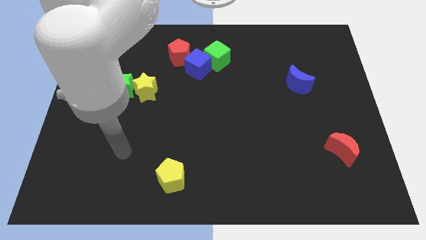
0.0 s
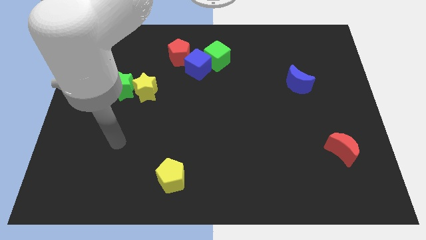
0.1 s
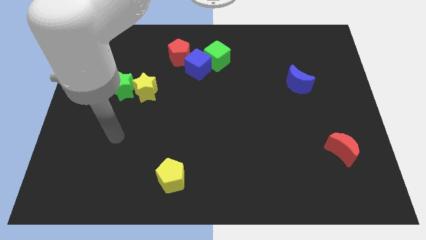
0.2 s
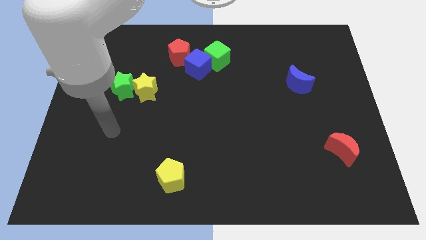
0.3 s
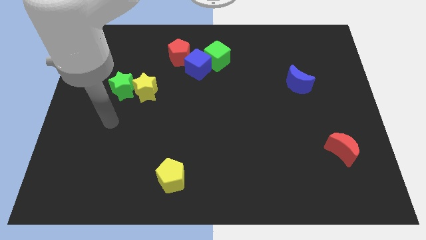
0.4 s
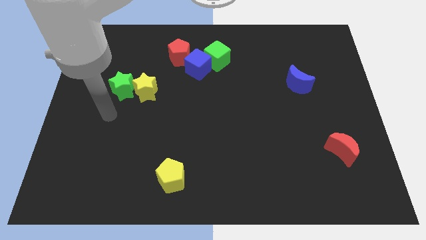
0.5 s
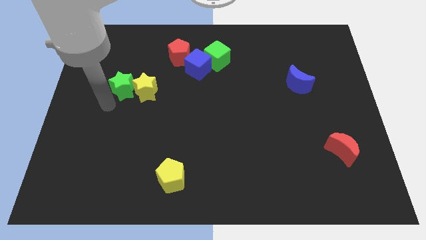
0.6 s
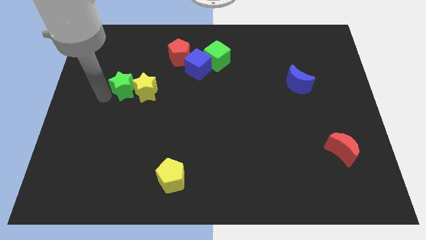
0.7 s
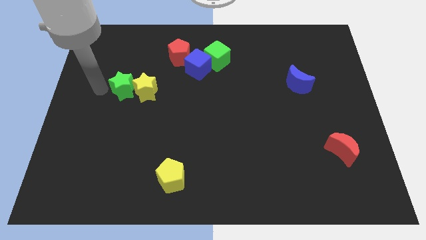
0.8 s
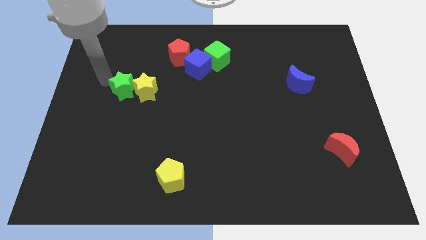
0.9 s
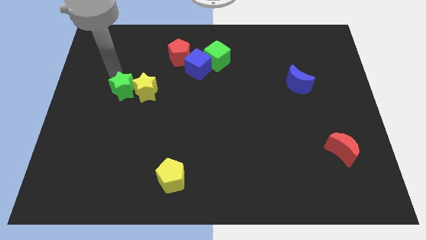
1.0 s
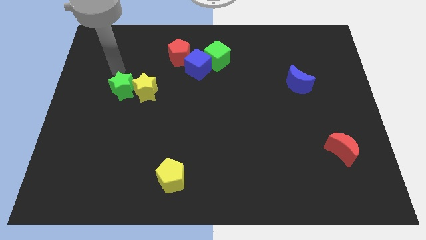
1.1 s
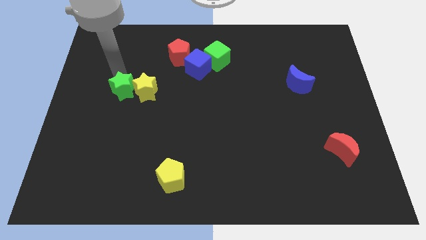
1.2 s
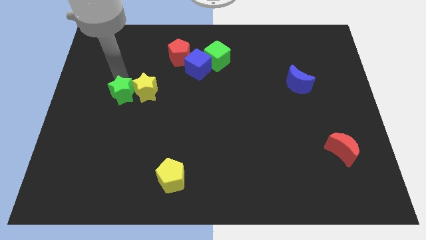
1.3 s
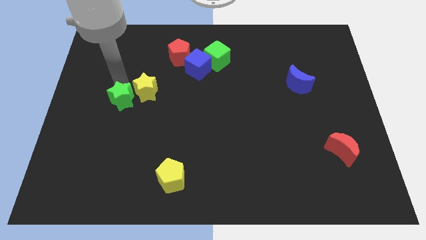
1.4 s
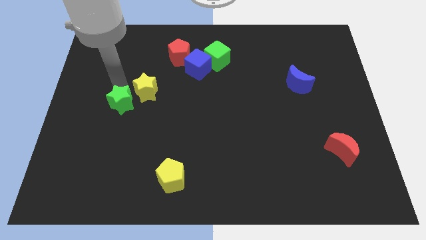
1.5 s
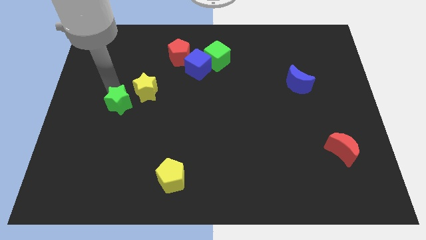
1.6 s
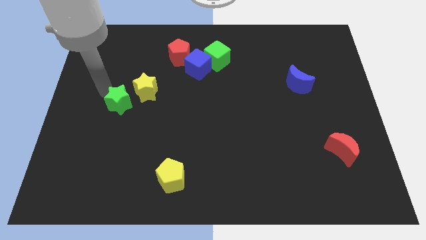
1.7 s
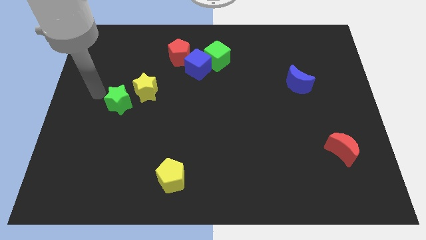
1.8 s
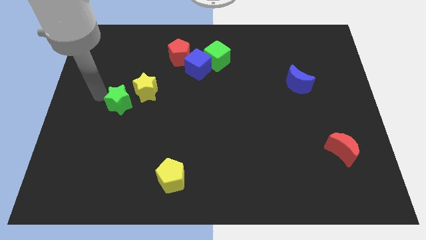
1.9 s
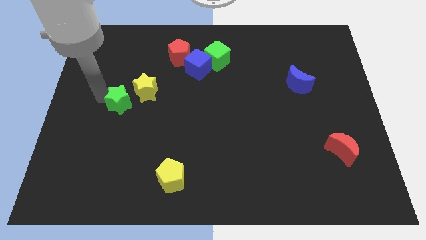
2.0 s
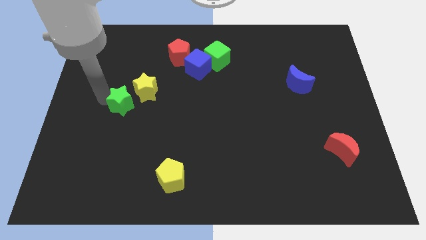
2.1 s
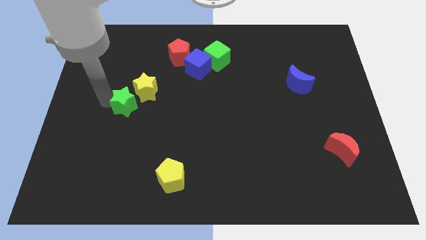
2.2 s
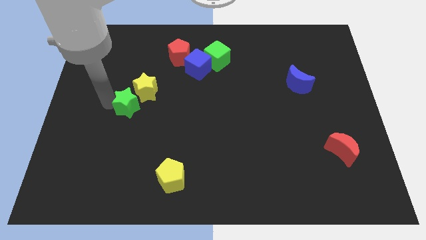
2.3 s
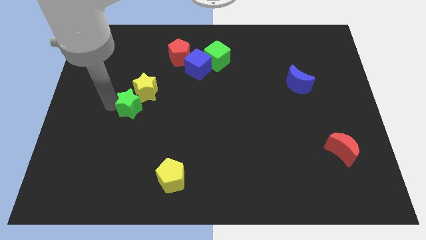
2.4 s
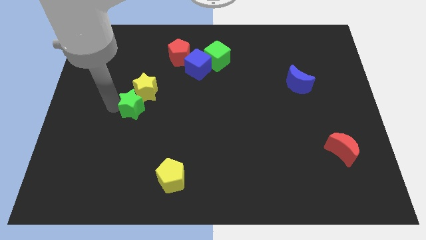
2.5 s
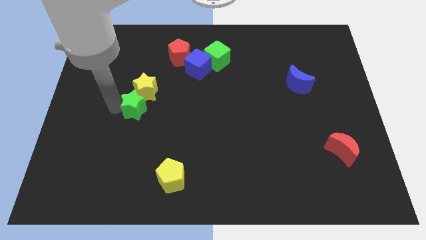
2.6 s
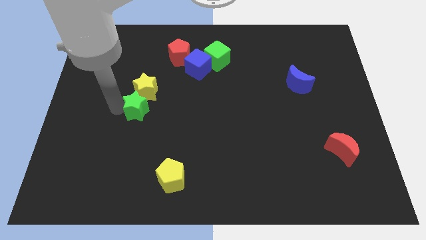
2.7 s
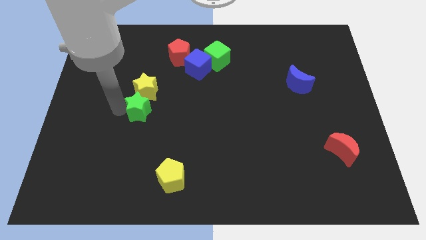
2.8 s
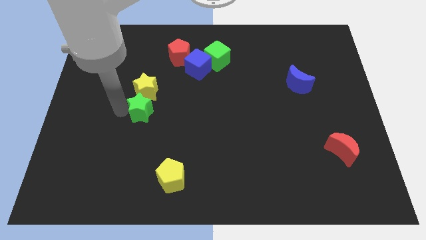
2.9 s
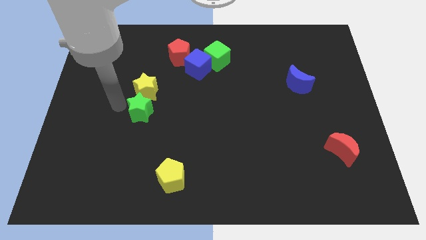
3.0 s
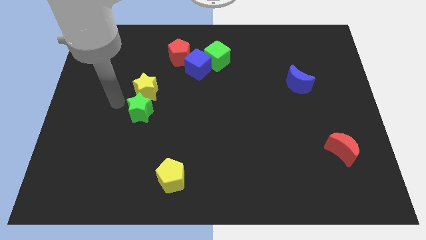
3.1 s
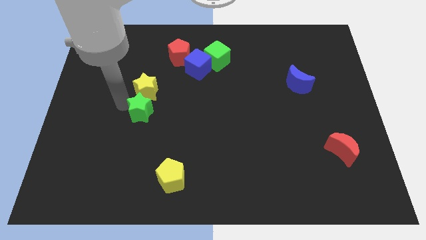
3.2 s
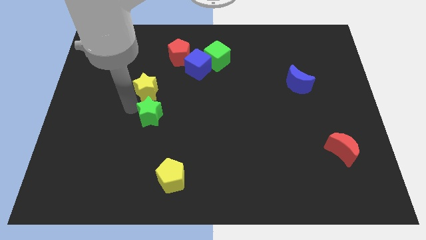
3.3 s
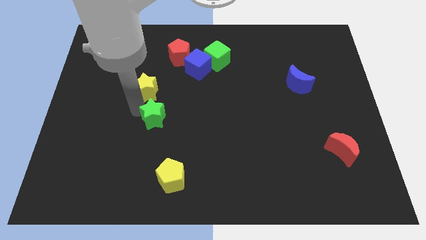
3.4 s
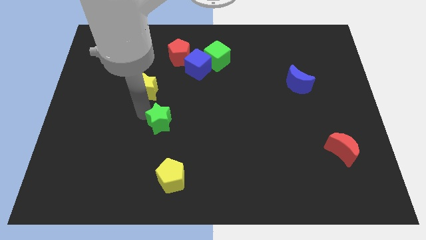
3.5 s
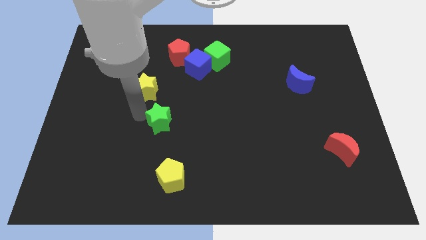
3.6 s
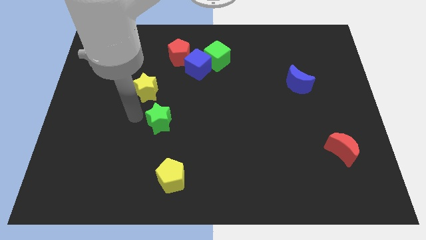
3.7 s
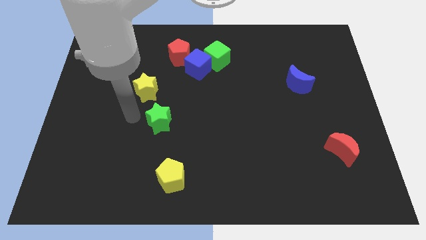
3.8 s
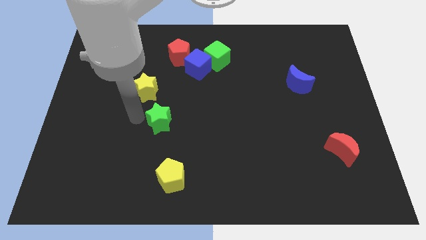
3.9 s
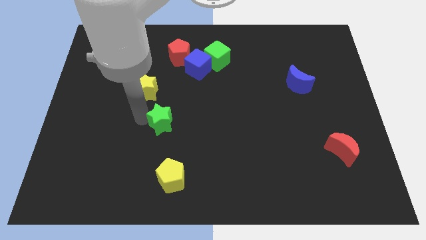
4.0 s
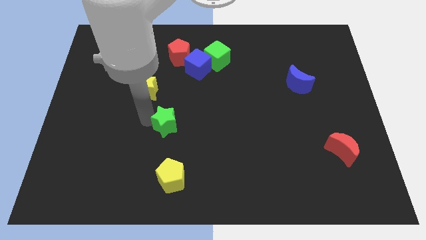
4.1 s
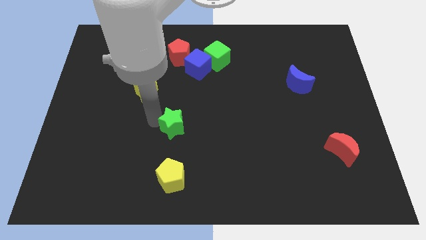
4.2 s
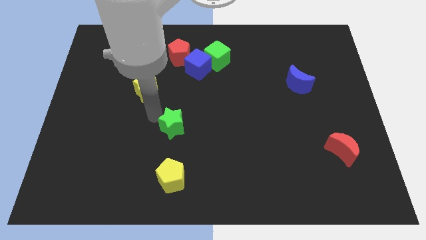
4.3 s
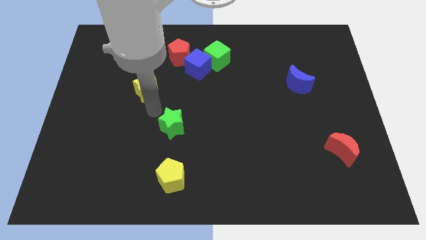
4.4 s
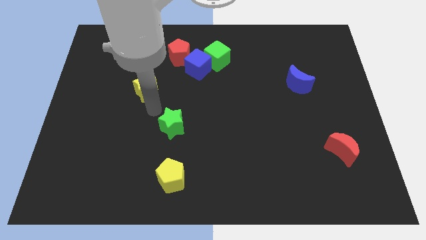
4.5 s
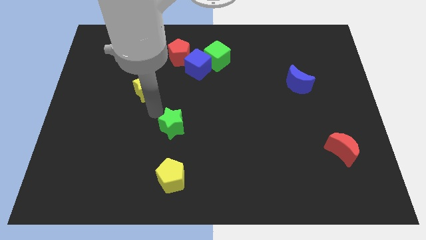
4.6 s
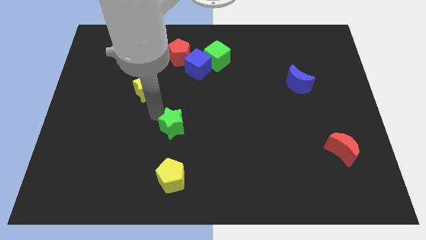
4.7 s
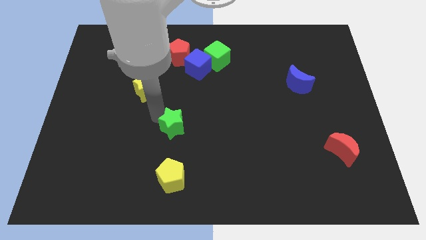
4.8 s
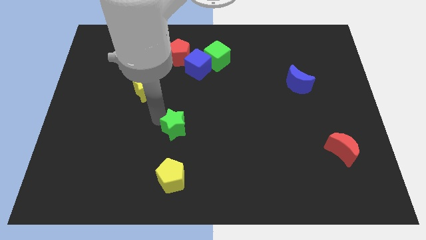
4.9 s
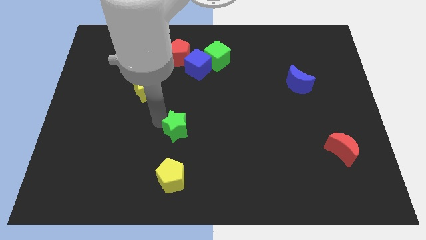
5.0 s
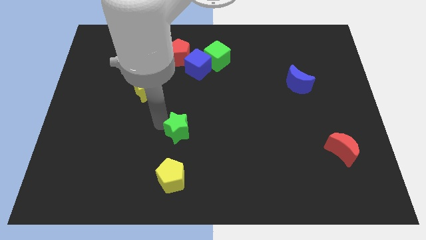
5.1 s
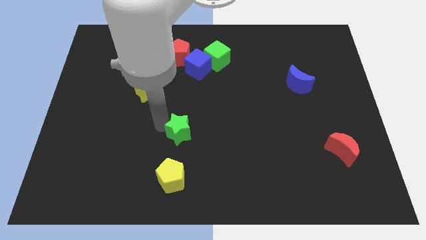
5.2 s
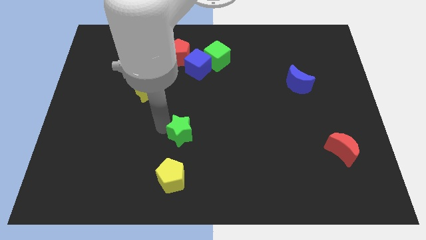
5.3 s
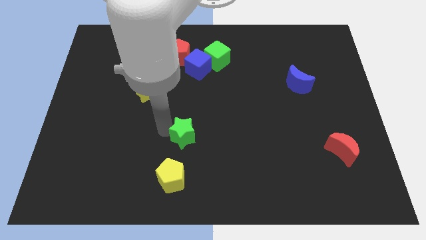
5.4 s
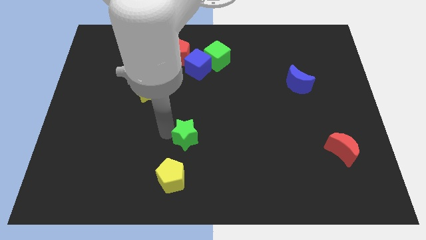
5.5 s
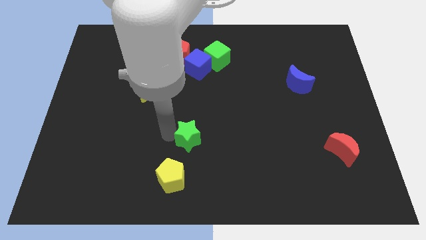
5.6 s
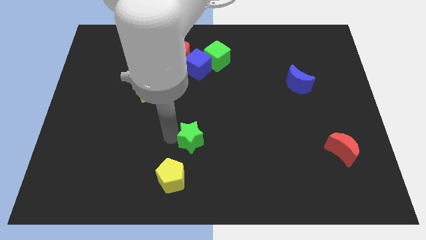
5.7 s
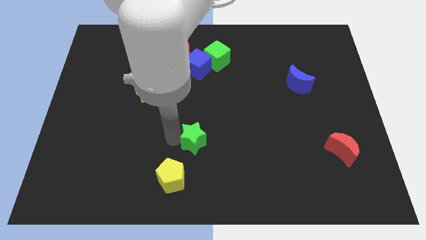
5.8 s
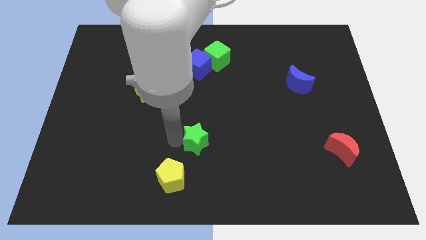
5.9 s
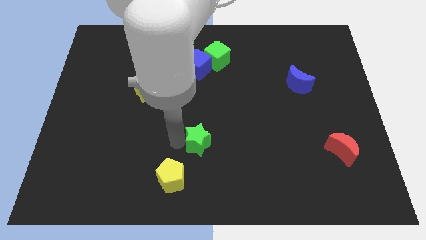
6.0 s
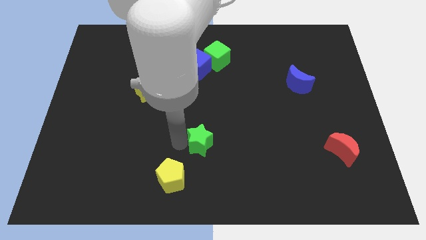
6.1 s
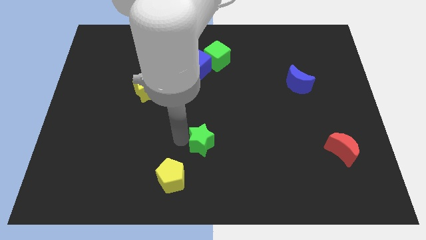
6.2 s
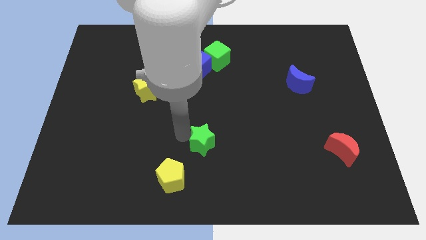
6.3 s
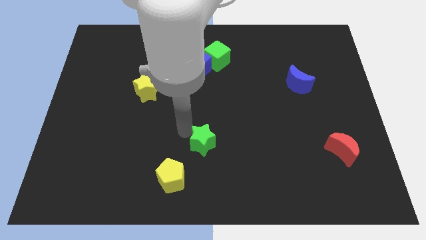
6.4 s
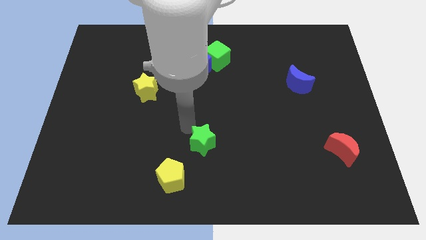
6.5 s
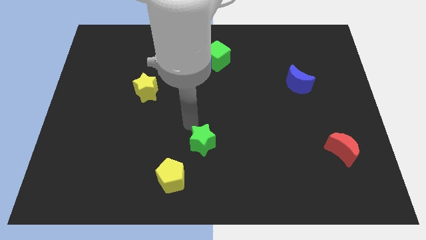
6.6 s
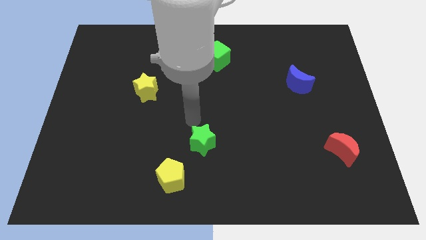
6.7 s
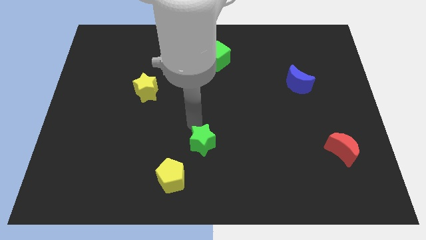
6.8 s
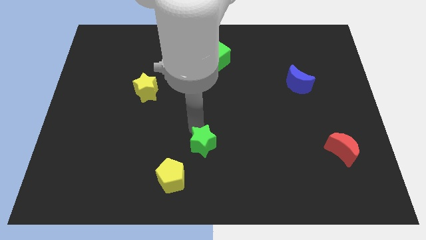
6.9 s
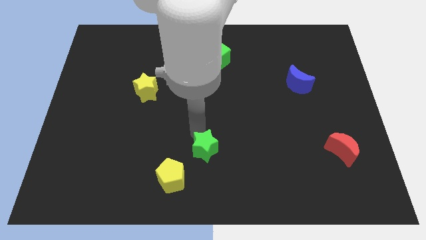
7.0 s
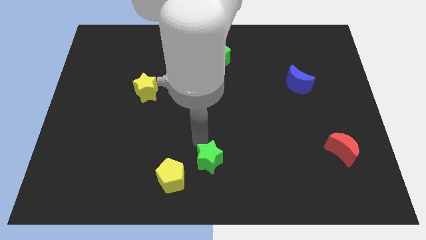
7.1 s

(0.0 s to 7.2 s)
push the green star right of the yellow pentagon

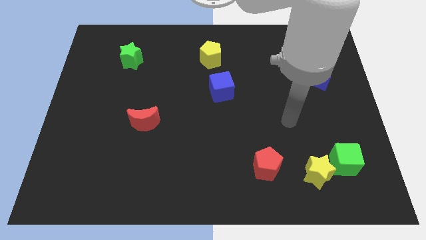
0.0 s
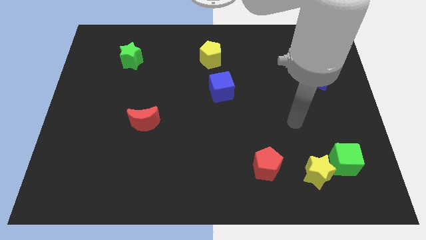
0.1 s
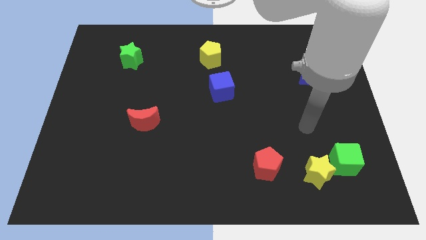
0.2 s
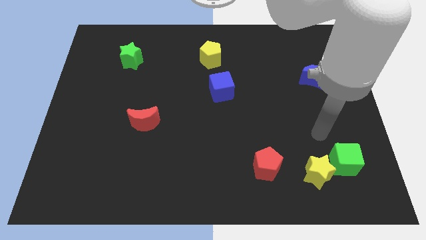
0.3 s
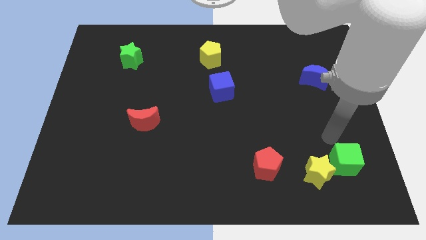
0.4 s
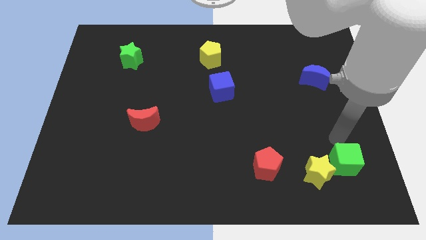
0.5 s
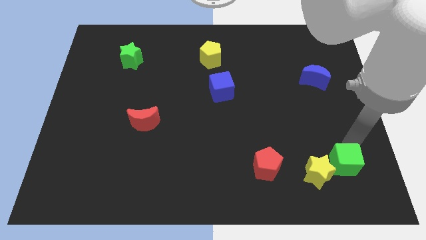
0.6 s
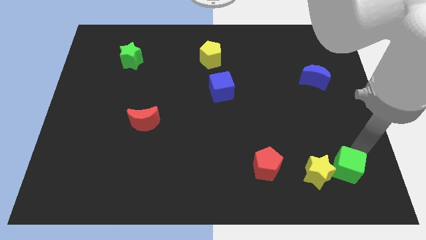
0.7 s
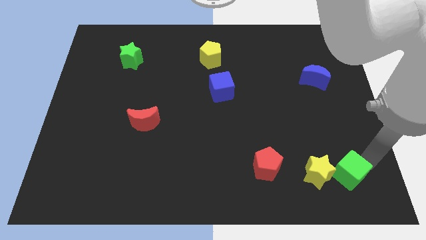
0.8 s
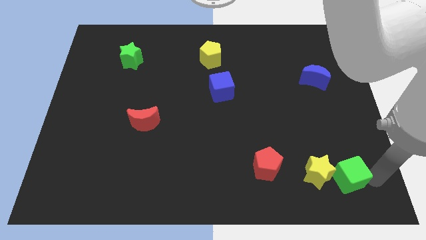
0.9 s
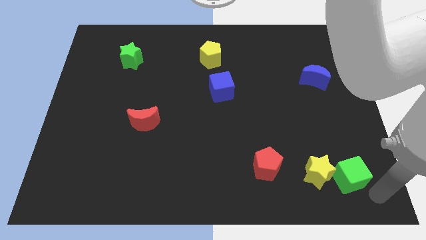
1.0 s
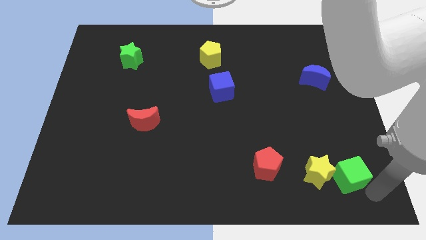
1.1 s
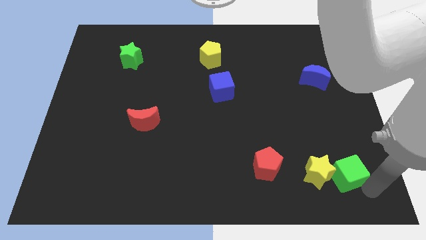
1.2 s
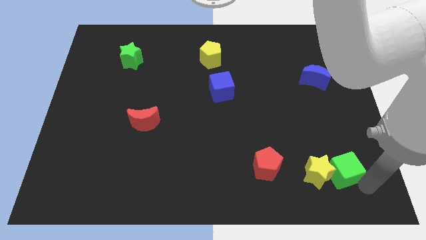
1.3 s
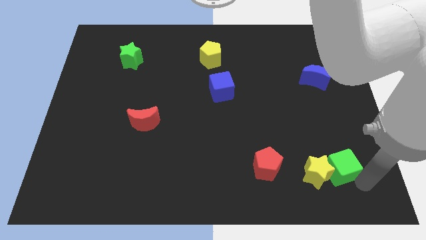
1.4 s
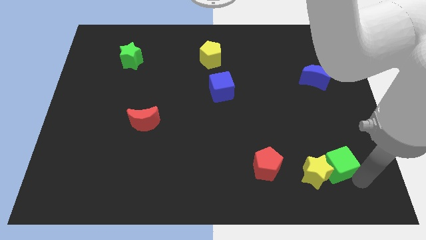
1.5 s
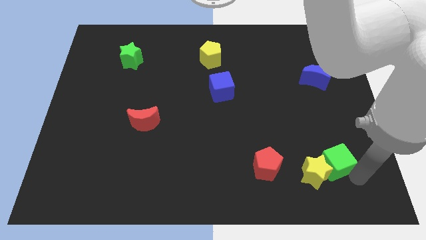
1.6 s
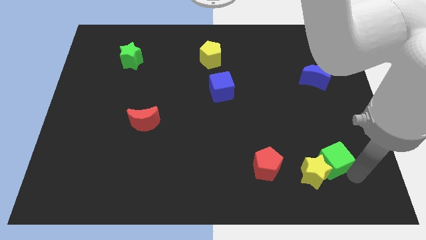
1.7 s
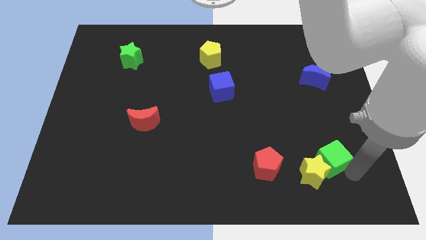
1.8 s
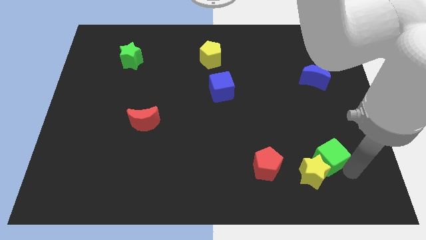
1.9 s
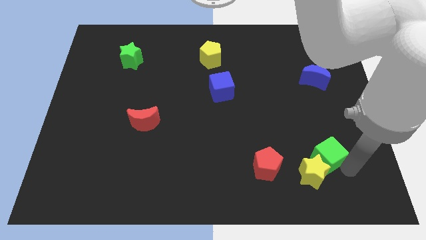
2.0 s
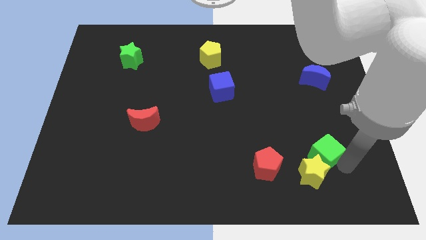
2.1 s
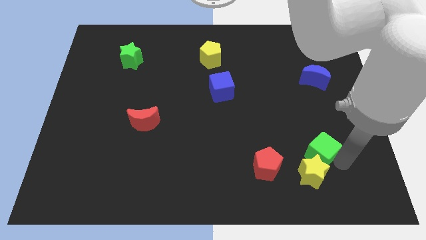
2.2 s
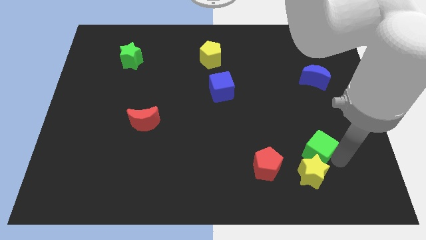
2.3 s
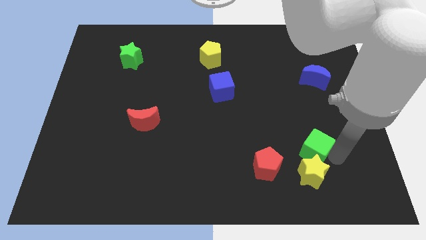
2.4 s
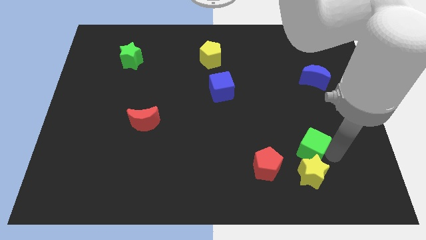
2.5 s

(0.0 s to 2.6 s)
slide the green cube to the top right of the red pentagon
